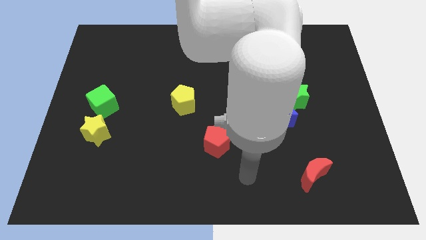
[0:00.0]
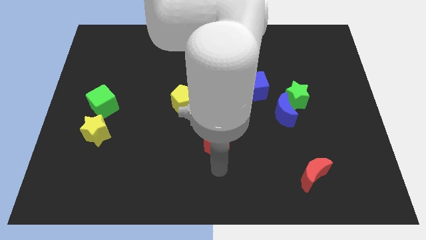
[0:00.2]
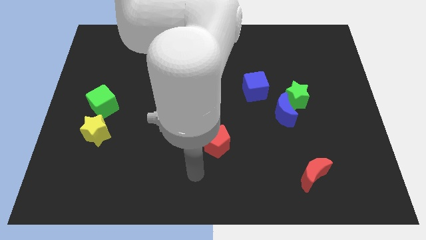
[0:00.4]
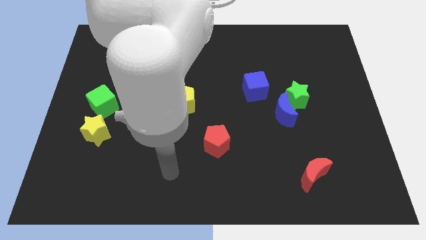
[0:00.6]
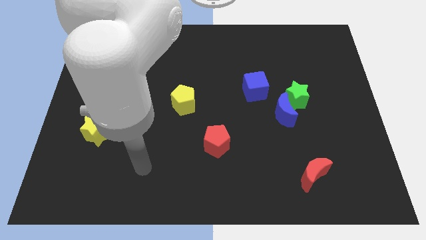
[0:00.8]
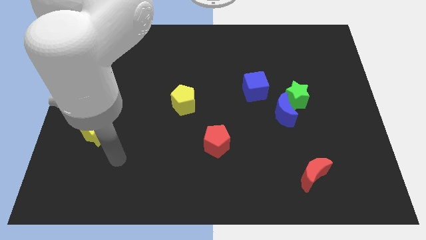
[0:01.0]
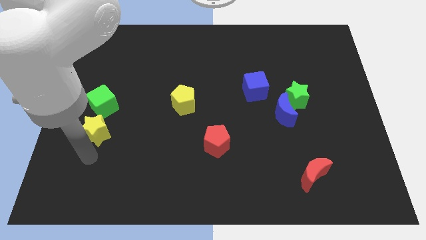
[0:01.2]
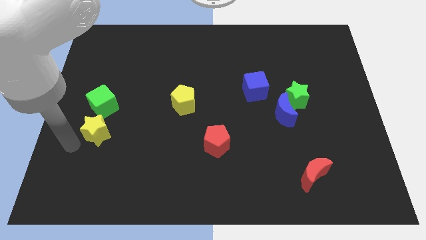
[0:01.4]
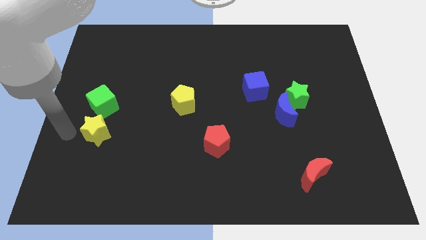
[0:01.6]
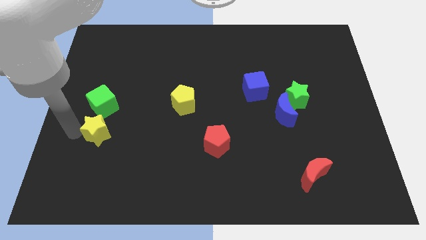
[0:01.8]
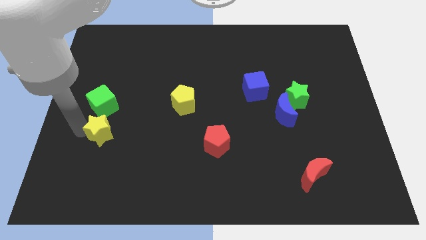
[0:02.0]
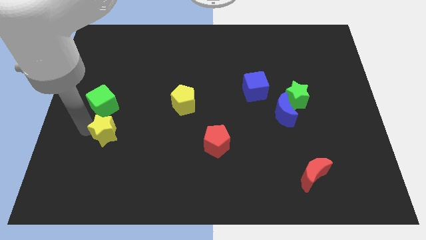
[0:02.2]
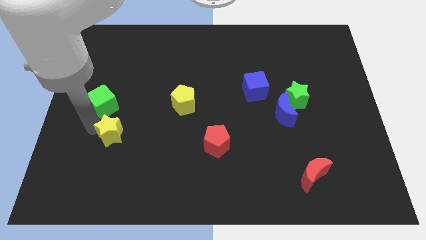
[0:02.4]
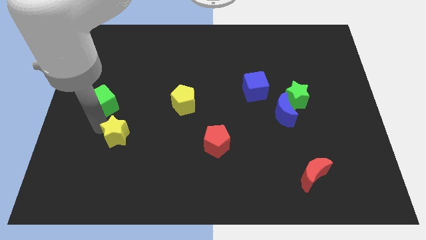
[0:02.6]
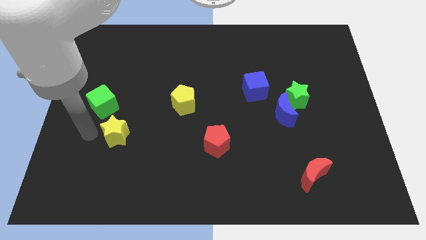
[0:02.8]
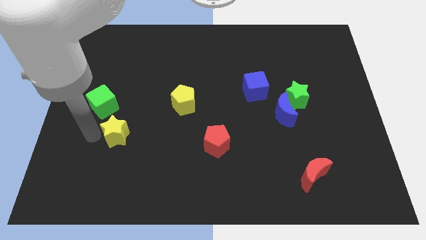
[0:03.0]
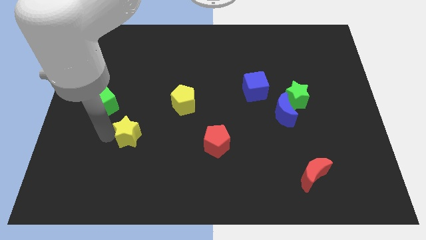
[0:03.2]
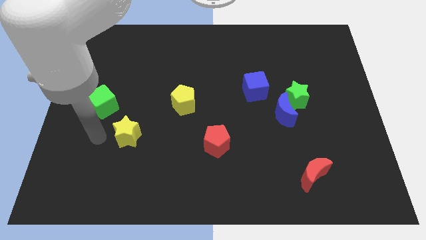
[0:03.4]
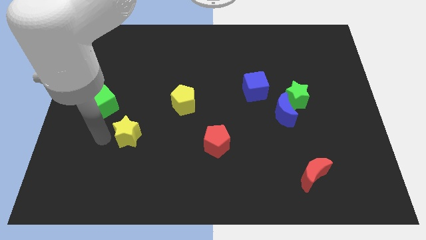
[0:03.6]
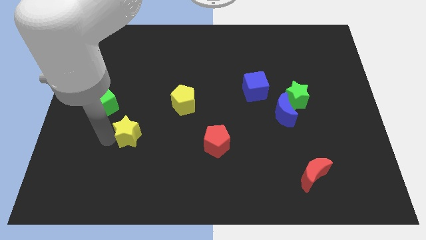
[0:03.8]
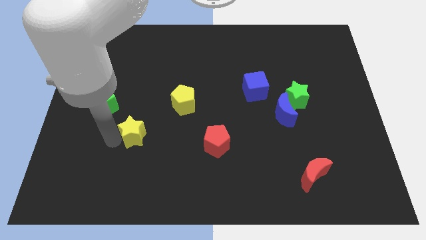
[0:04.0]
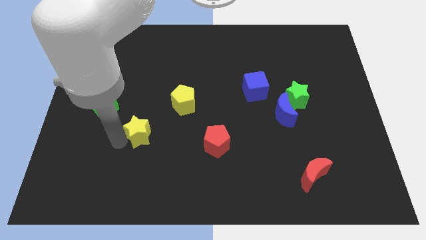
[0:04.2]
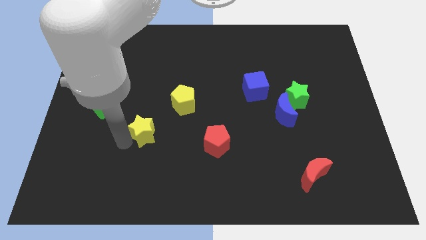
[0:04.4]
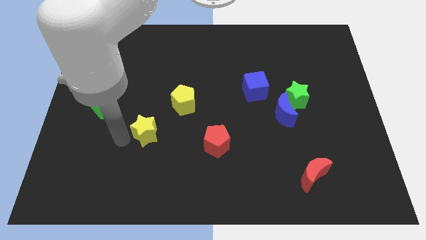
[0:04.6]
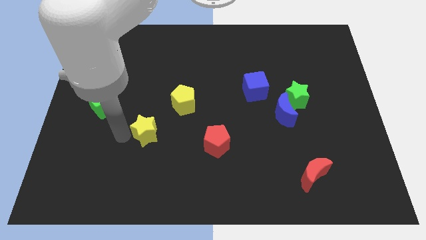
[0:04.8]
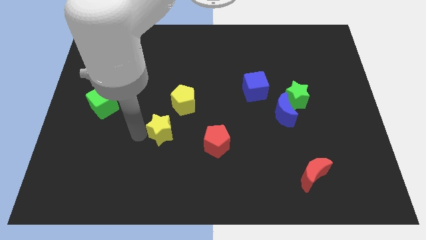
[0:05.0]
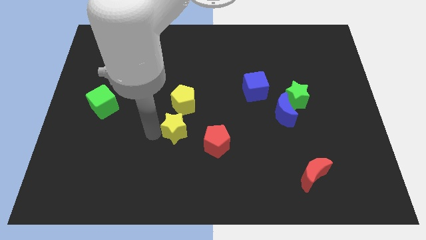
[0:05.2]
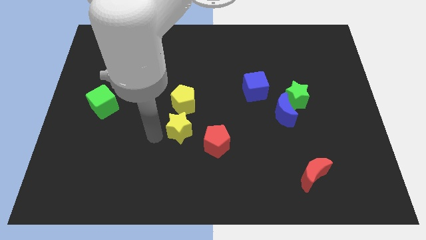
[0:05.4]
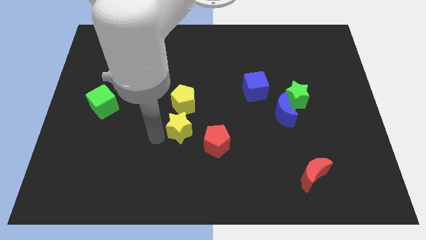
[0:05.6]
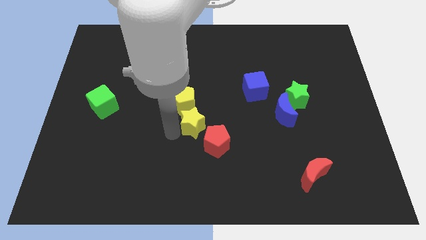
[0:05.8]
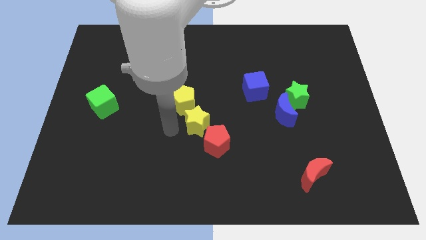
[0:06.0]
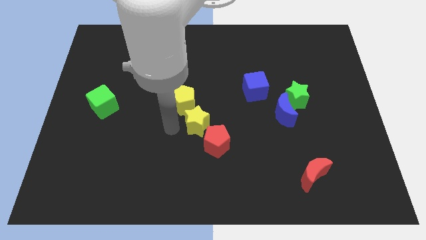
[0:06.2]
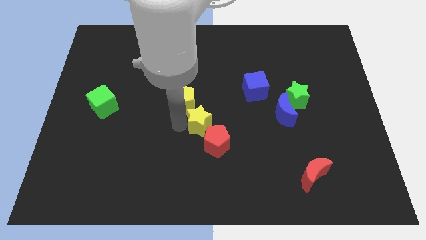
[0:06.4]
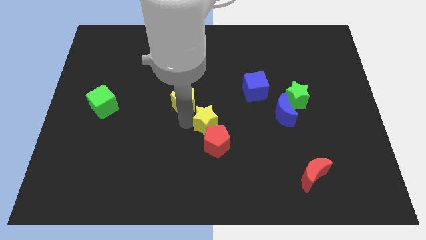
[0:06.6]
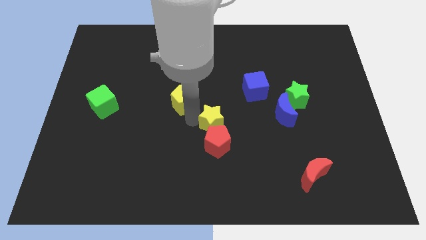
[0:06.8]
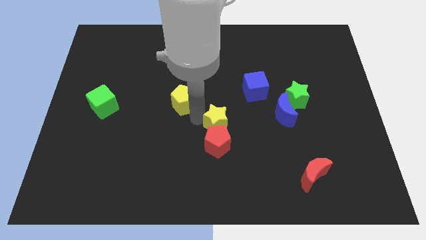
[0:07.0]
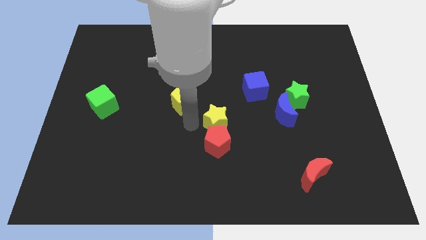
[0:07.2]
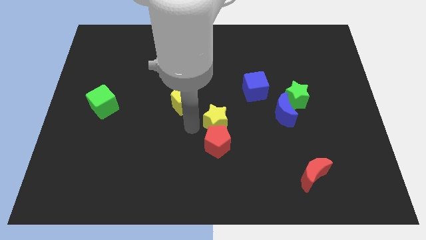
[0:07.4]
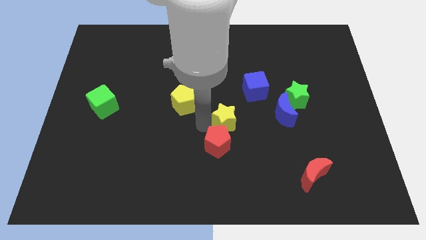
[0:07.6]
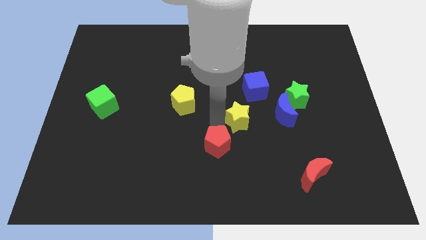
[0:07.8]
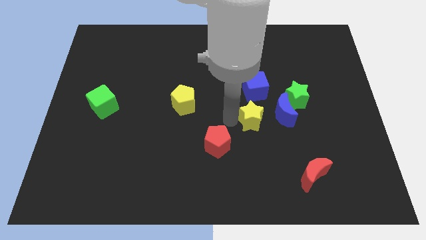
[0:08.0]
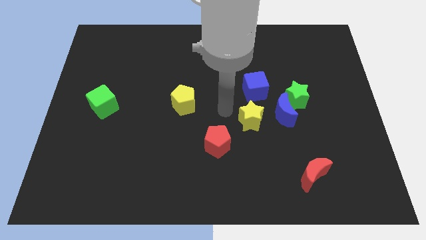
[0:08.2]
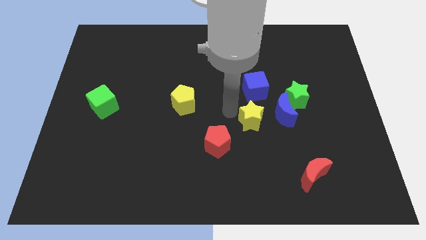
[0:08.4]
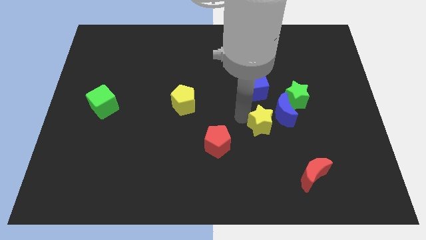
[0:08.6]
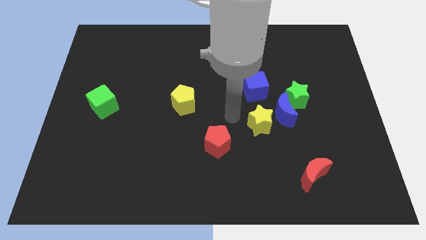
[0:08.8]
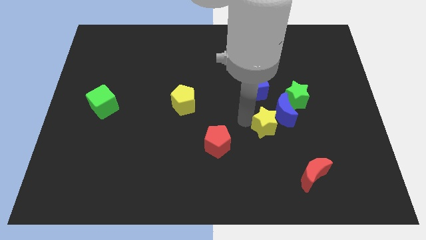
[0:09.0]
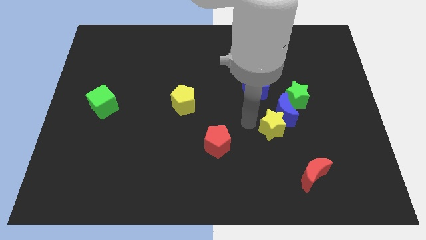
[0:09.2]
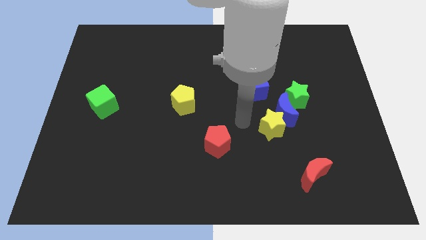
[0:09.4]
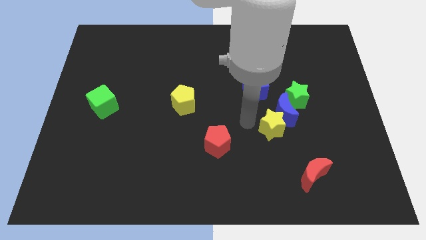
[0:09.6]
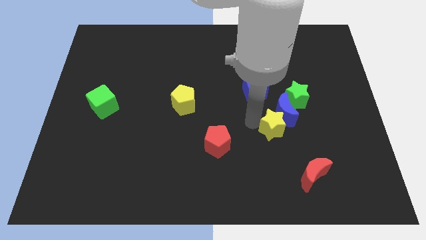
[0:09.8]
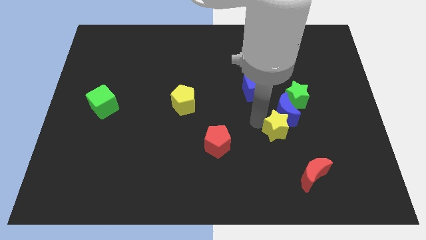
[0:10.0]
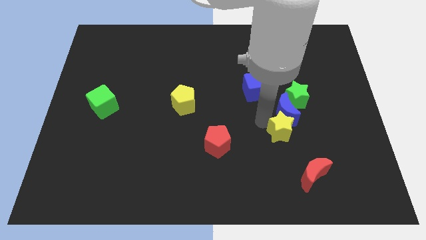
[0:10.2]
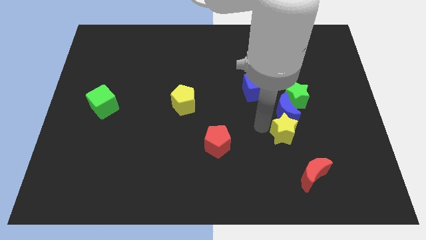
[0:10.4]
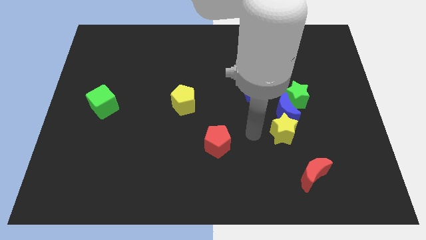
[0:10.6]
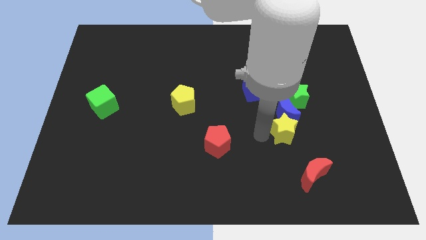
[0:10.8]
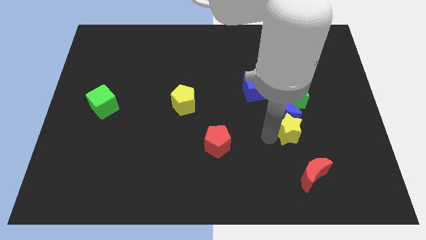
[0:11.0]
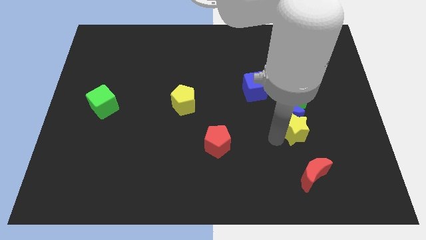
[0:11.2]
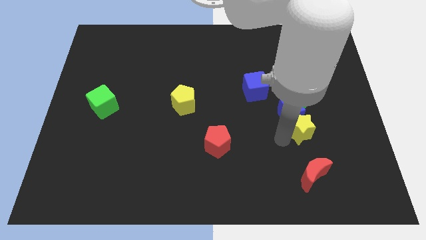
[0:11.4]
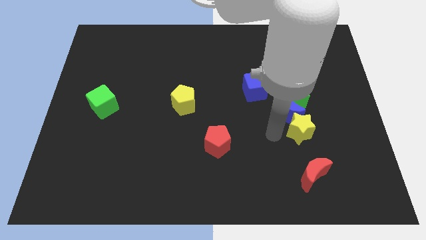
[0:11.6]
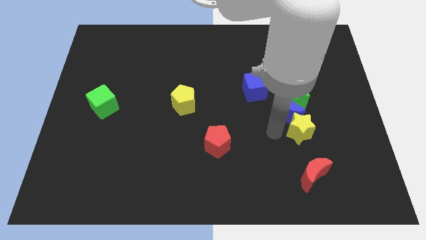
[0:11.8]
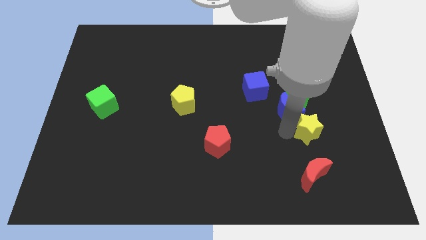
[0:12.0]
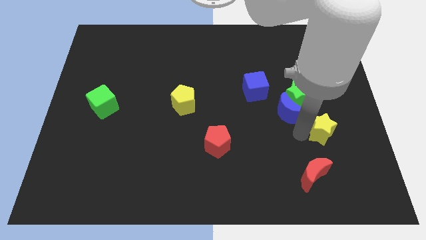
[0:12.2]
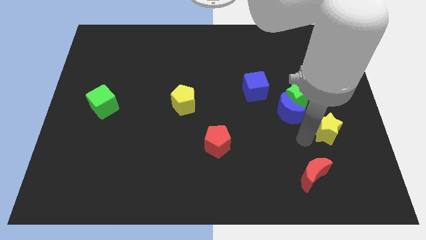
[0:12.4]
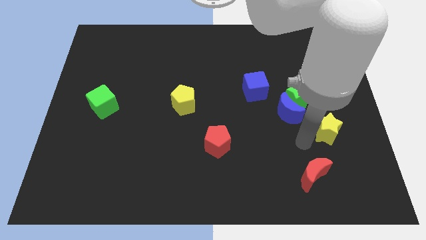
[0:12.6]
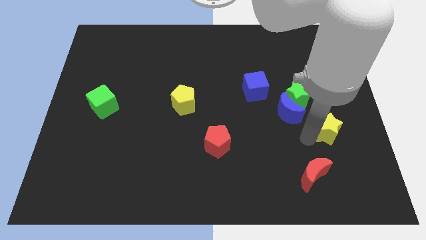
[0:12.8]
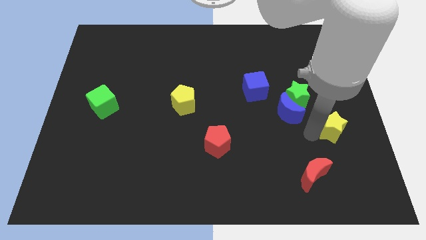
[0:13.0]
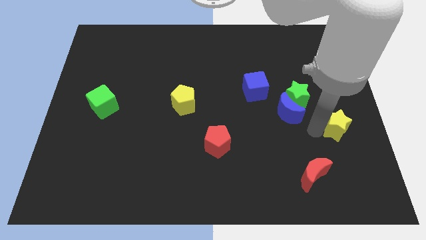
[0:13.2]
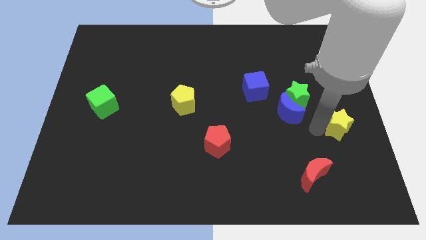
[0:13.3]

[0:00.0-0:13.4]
push the yellow star to the right side of the board
